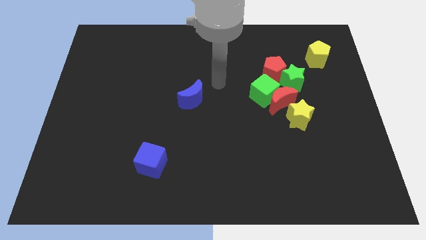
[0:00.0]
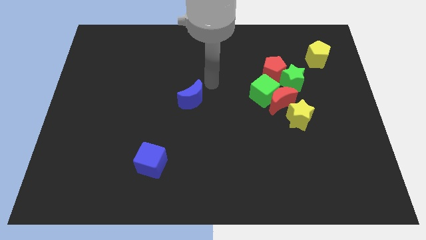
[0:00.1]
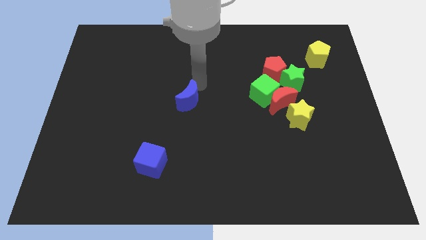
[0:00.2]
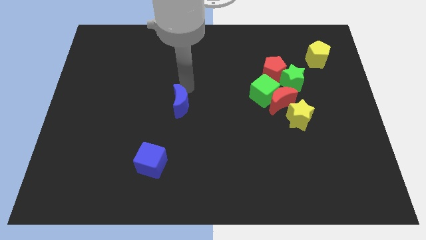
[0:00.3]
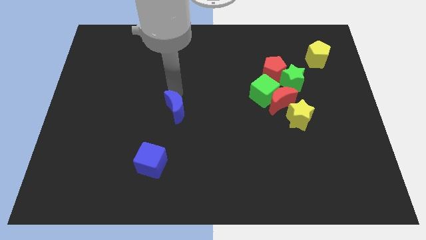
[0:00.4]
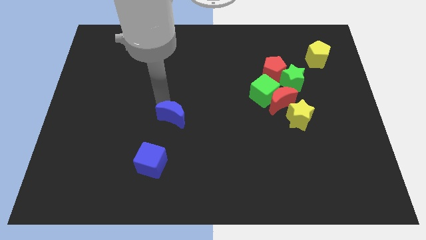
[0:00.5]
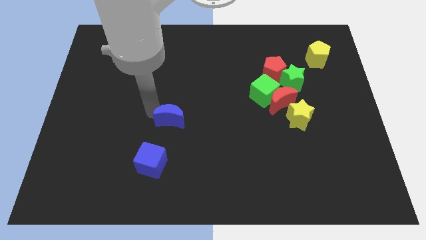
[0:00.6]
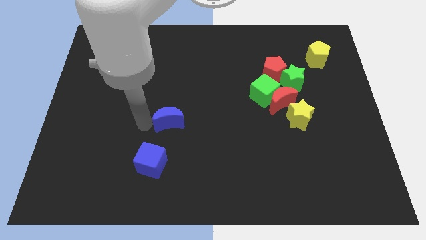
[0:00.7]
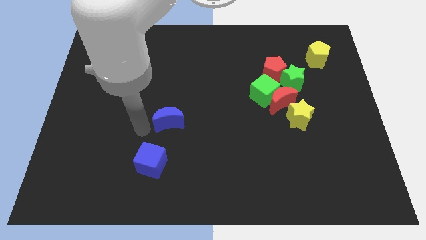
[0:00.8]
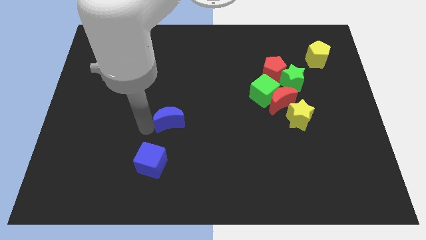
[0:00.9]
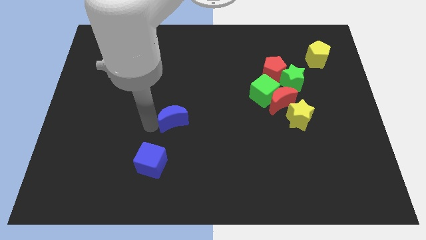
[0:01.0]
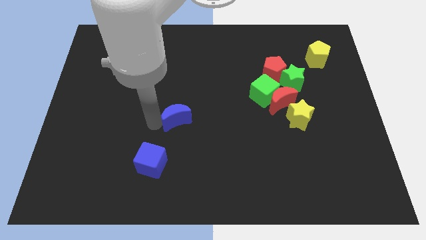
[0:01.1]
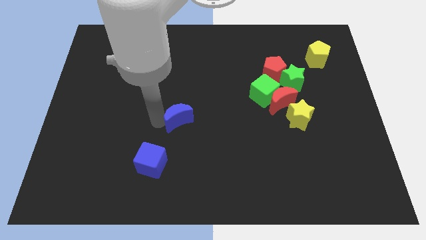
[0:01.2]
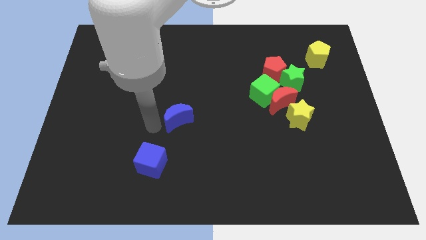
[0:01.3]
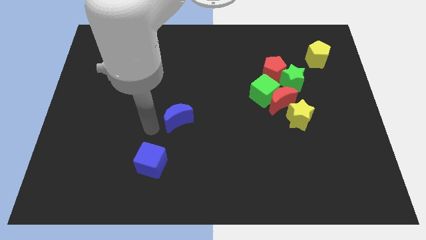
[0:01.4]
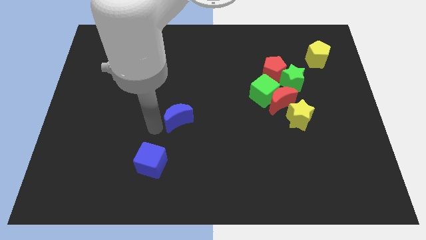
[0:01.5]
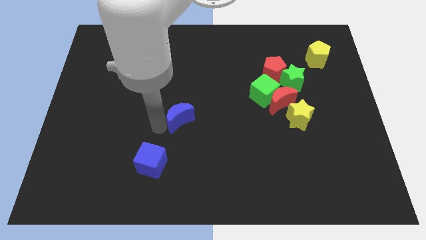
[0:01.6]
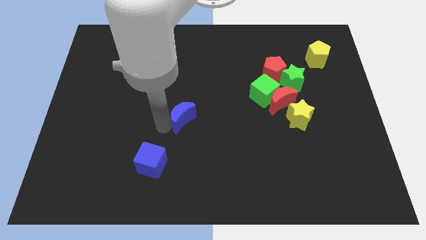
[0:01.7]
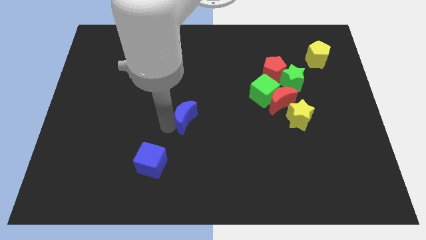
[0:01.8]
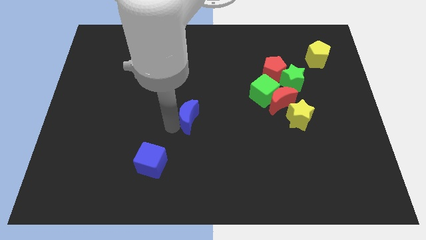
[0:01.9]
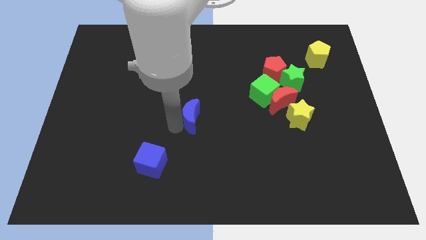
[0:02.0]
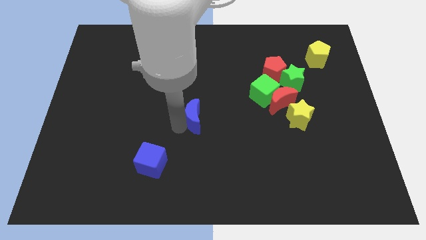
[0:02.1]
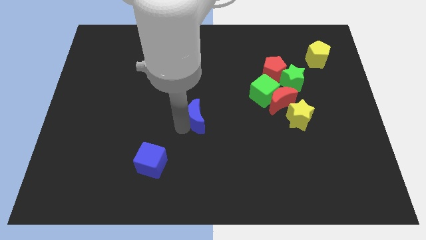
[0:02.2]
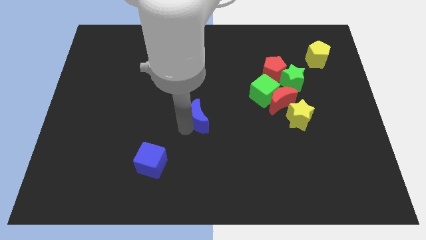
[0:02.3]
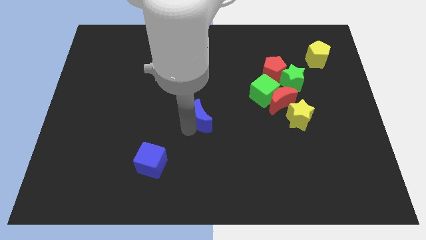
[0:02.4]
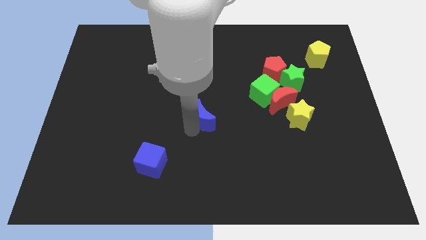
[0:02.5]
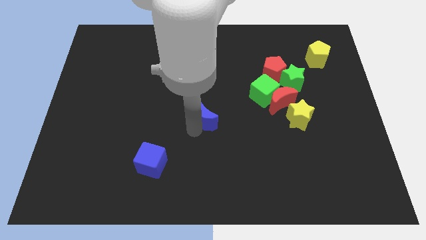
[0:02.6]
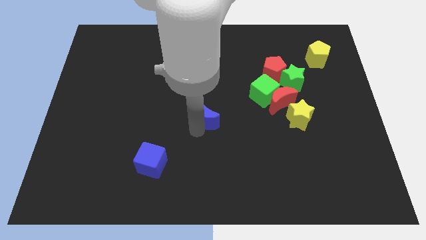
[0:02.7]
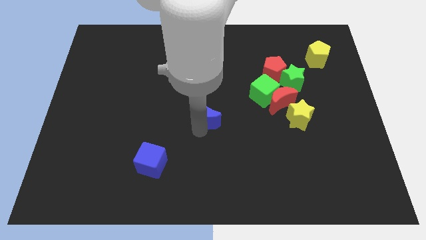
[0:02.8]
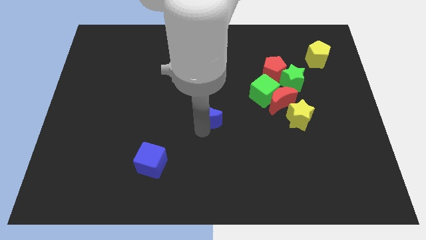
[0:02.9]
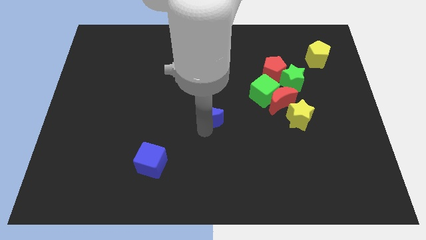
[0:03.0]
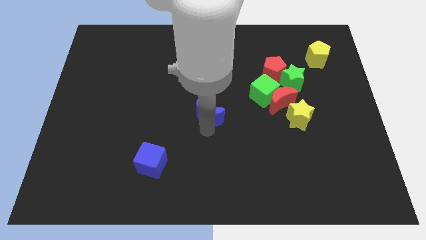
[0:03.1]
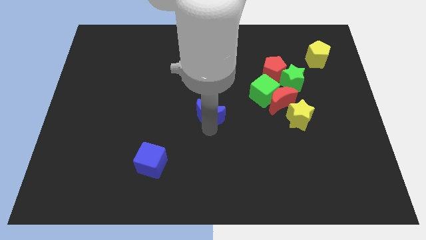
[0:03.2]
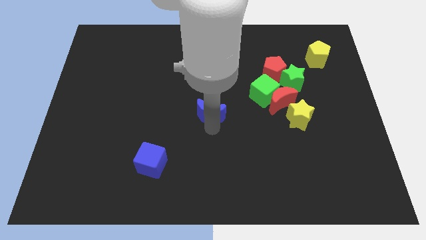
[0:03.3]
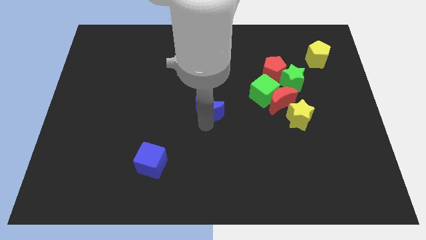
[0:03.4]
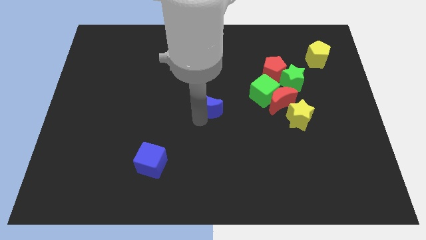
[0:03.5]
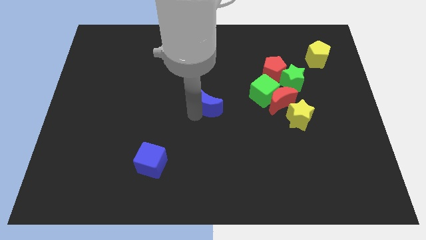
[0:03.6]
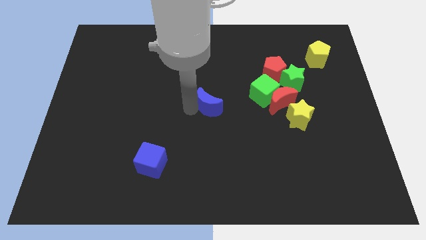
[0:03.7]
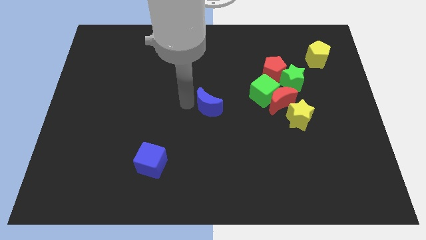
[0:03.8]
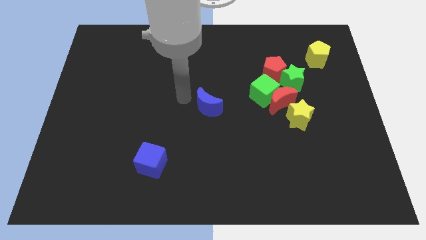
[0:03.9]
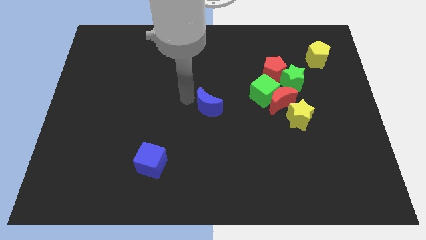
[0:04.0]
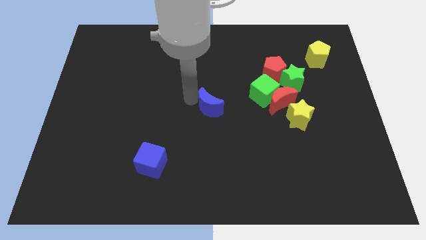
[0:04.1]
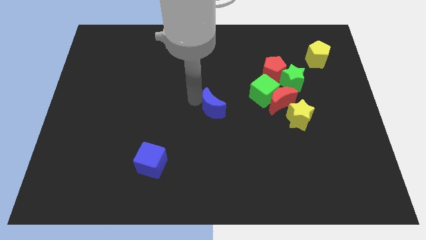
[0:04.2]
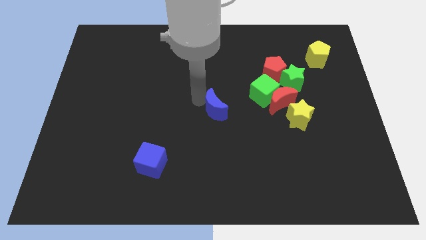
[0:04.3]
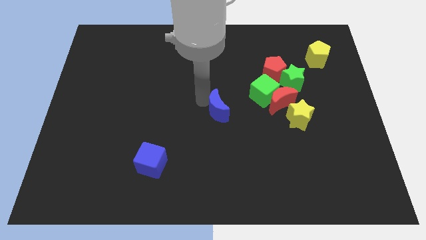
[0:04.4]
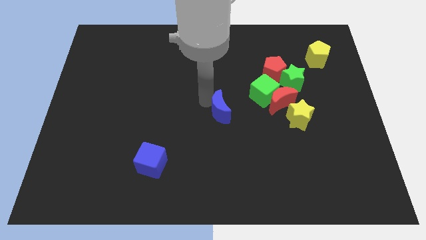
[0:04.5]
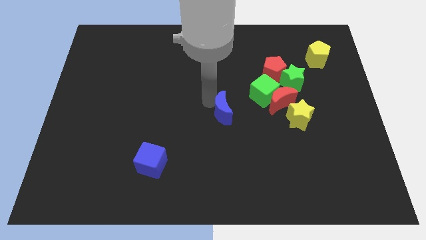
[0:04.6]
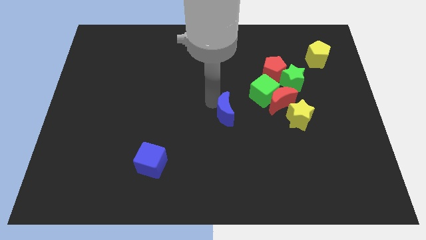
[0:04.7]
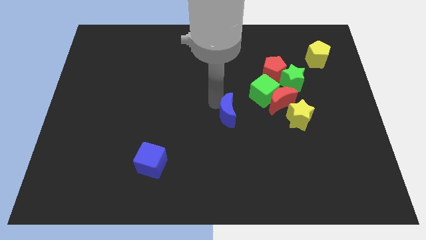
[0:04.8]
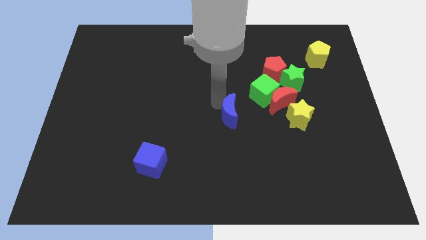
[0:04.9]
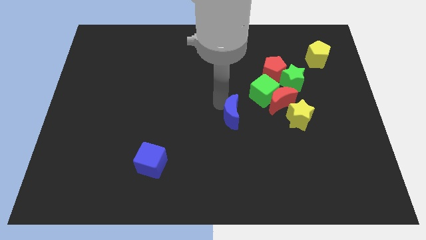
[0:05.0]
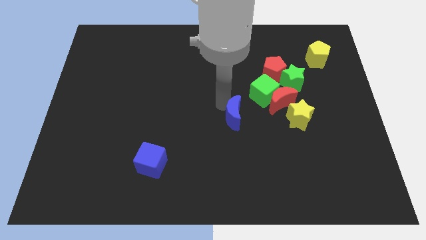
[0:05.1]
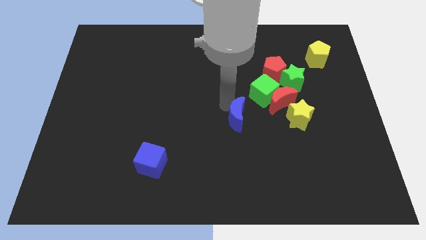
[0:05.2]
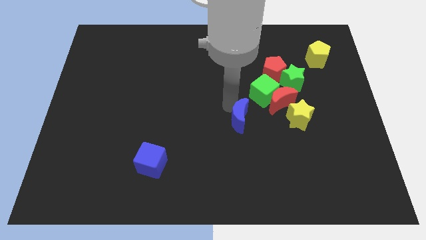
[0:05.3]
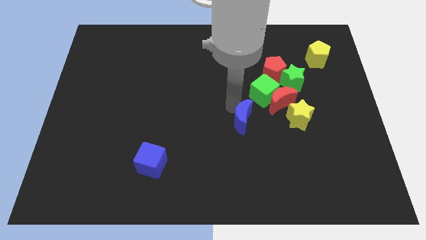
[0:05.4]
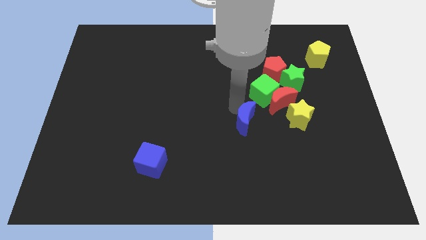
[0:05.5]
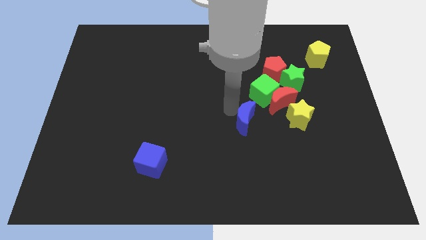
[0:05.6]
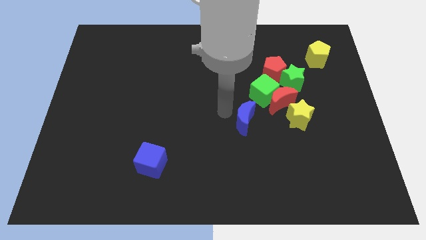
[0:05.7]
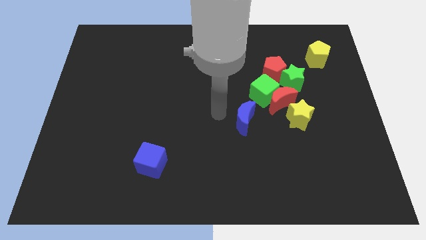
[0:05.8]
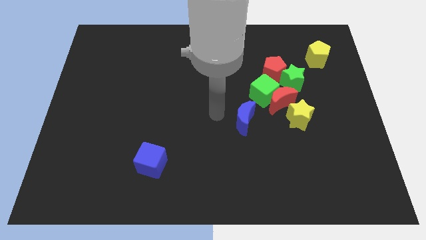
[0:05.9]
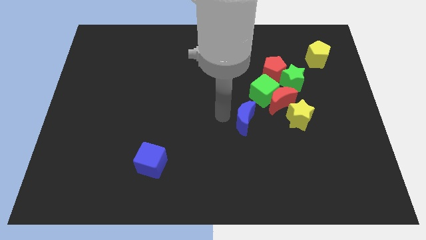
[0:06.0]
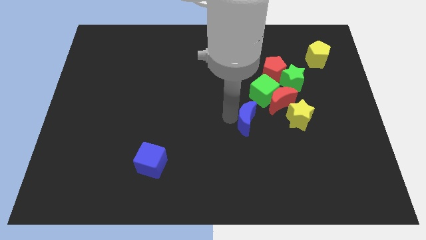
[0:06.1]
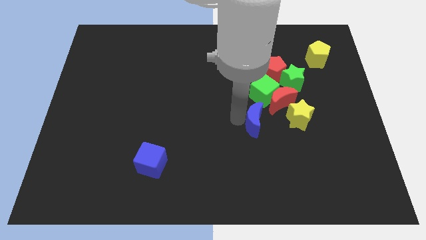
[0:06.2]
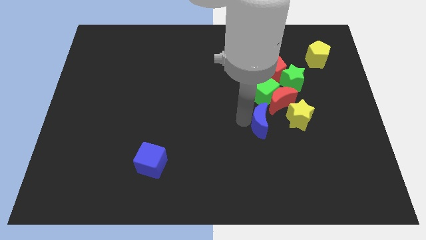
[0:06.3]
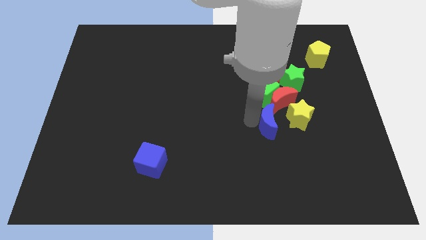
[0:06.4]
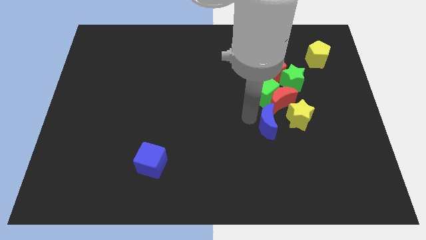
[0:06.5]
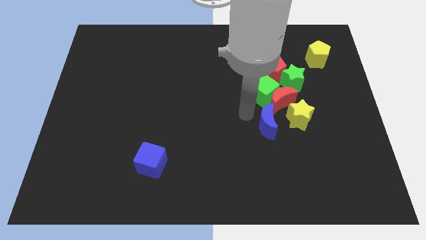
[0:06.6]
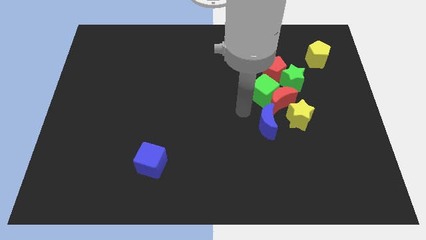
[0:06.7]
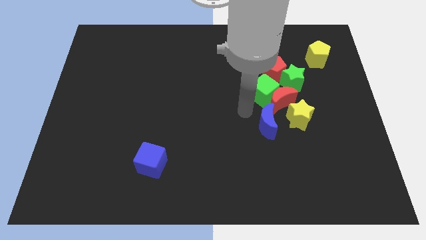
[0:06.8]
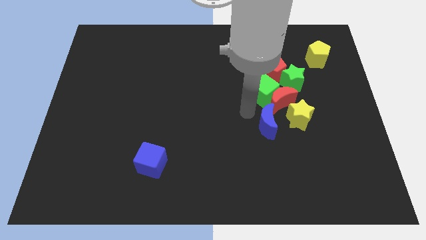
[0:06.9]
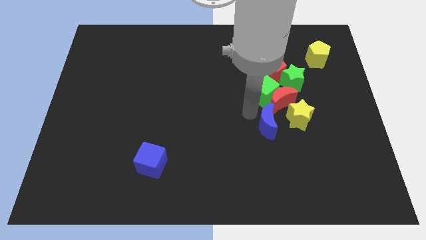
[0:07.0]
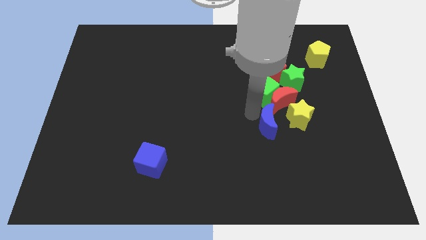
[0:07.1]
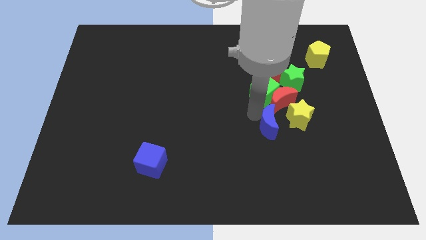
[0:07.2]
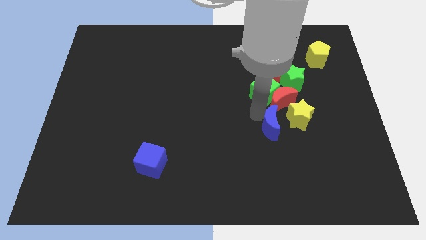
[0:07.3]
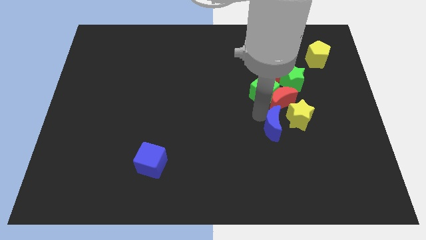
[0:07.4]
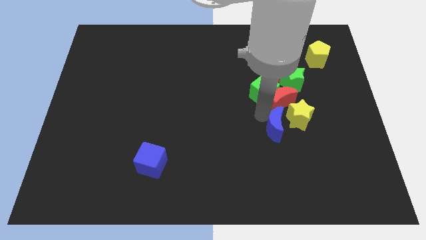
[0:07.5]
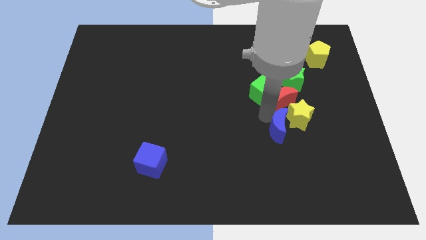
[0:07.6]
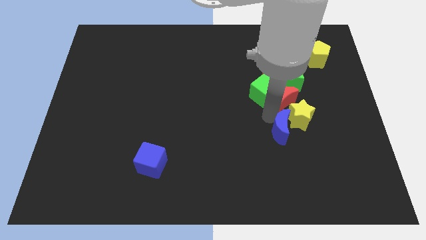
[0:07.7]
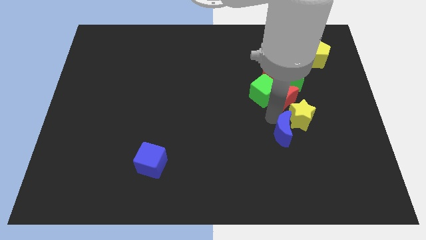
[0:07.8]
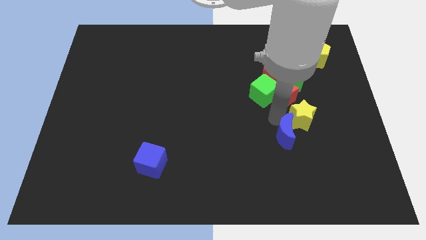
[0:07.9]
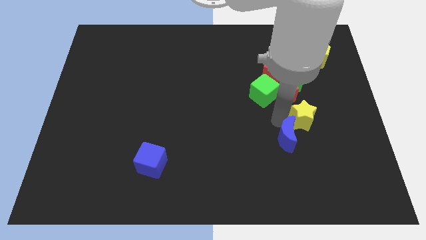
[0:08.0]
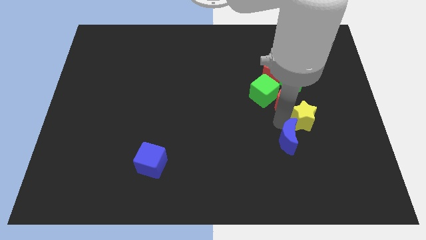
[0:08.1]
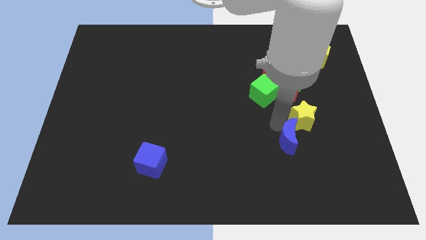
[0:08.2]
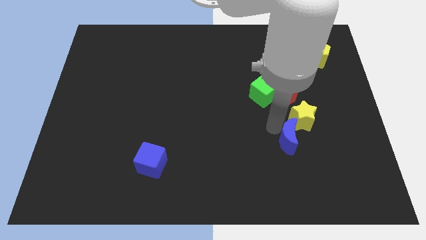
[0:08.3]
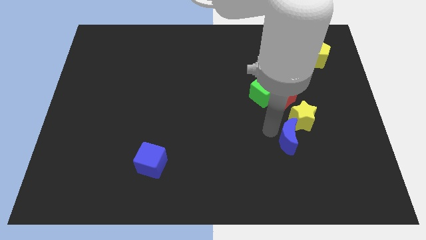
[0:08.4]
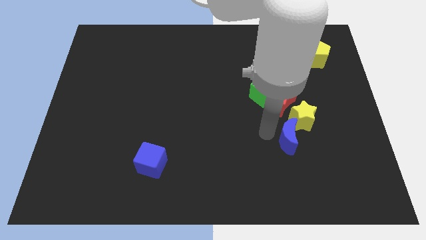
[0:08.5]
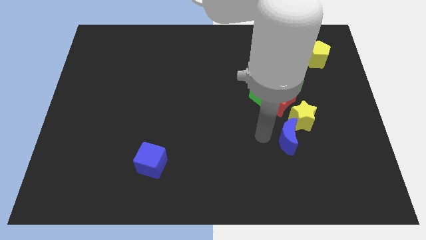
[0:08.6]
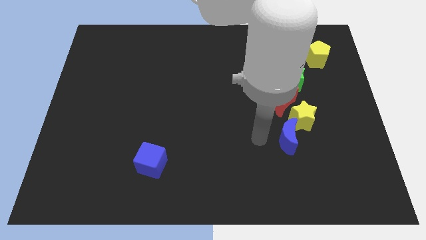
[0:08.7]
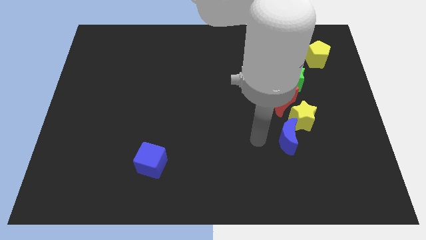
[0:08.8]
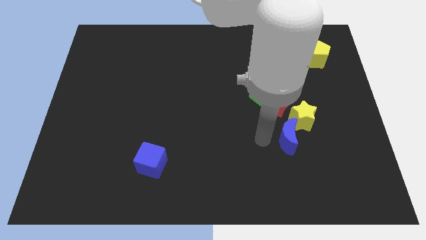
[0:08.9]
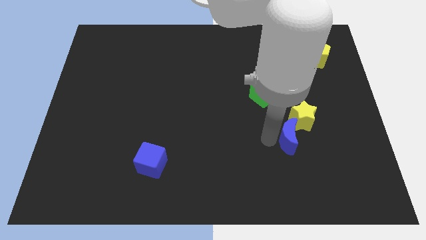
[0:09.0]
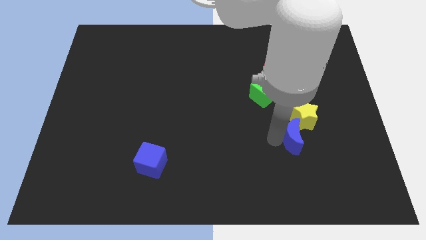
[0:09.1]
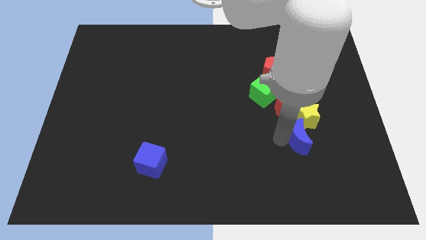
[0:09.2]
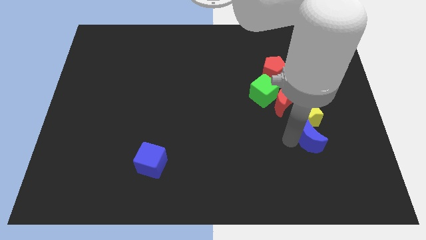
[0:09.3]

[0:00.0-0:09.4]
push the blue moon to the bottom right side of the yellow star
